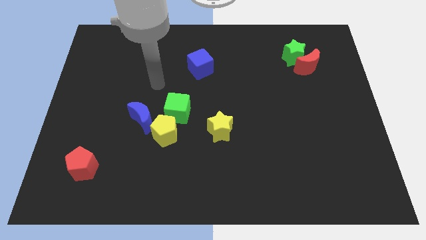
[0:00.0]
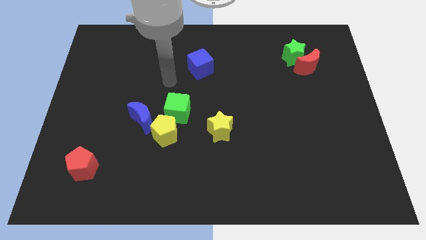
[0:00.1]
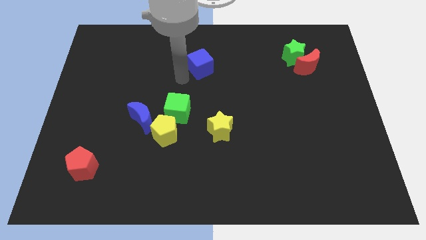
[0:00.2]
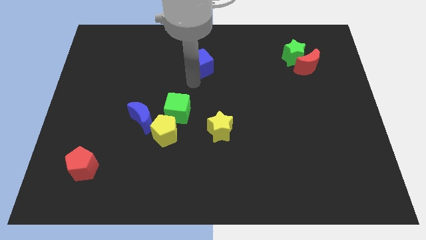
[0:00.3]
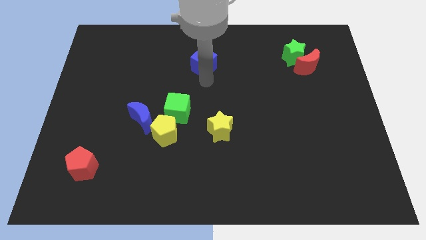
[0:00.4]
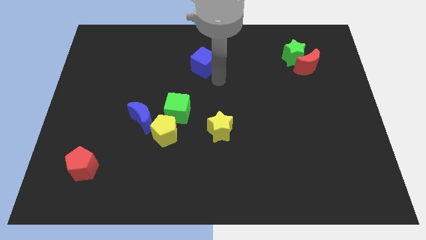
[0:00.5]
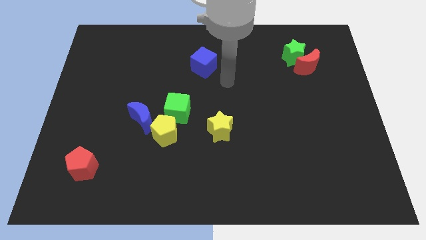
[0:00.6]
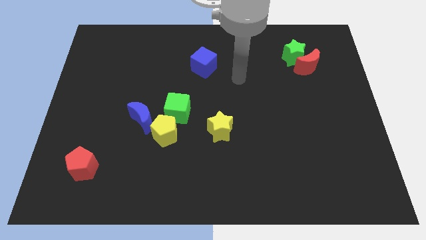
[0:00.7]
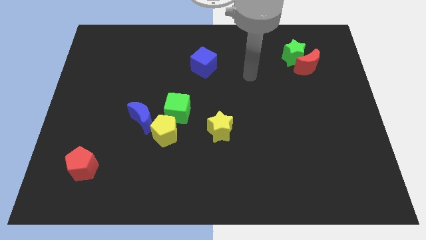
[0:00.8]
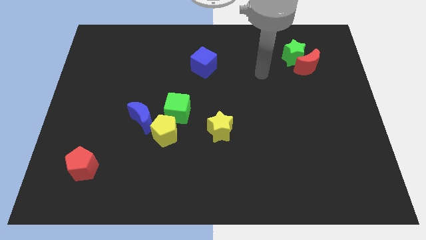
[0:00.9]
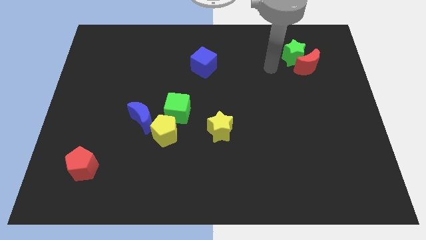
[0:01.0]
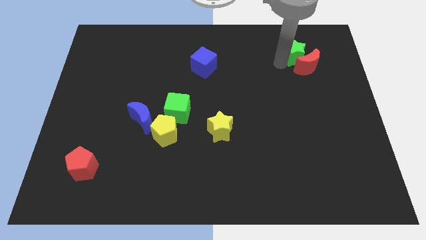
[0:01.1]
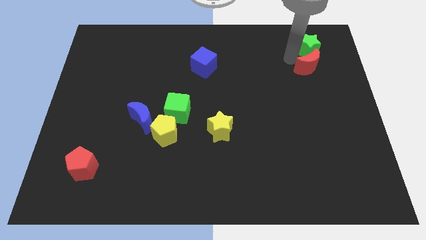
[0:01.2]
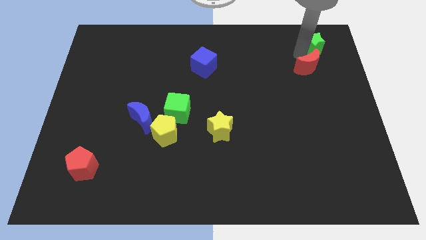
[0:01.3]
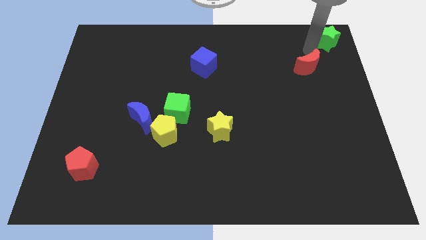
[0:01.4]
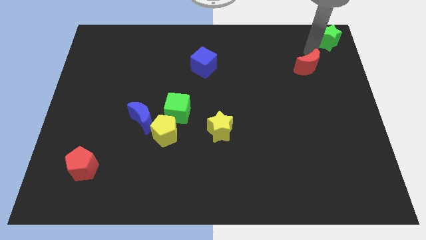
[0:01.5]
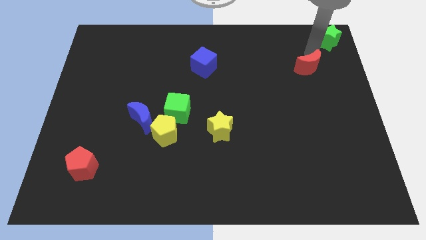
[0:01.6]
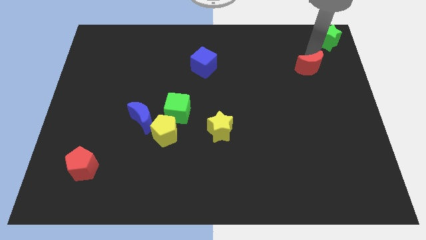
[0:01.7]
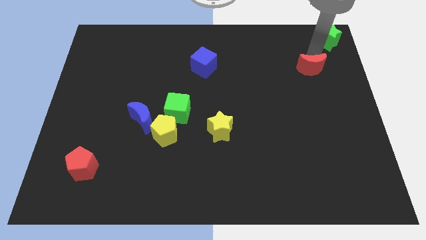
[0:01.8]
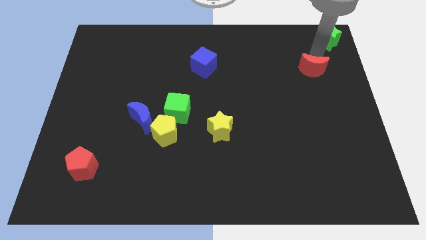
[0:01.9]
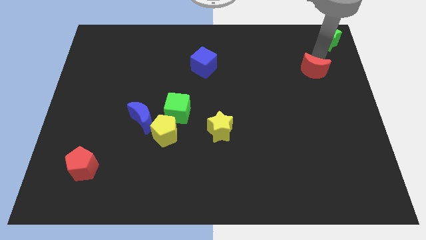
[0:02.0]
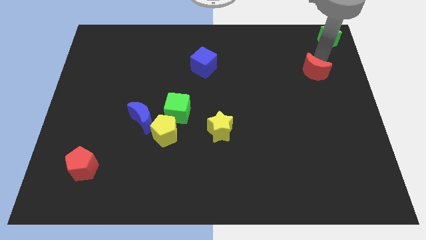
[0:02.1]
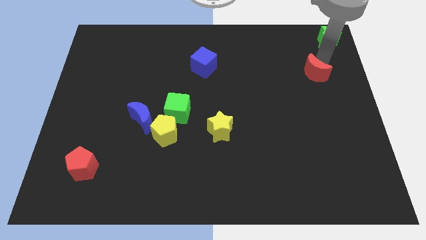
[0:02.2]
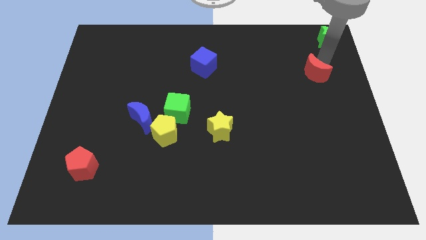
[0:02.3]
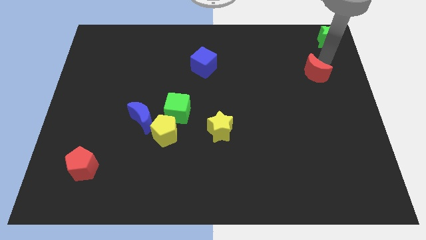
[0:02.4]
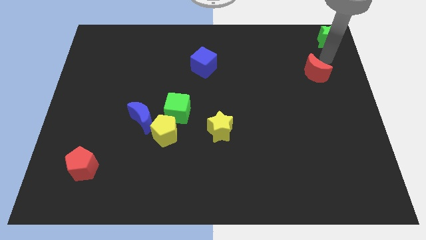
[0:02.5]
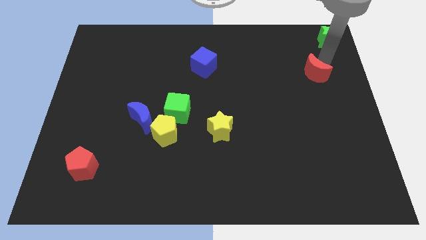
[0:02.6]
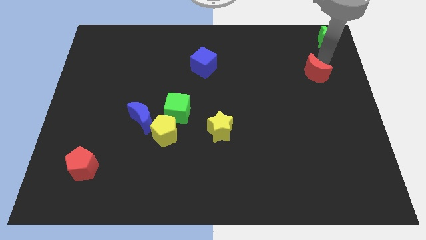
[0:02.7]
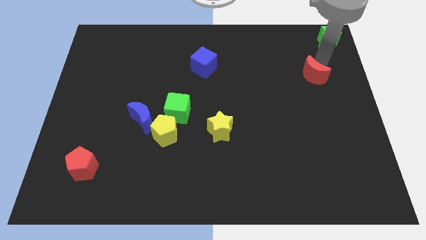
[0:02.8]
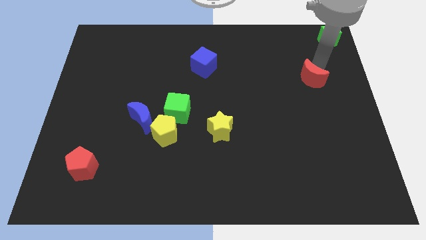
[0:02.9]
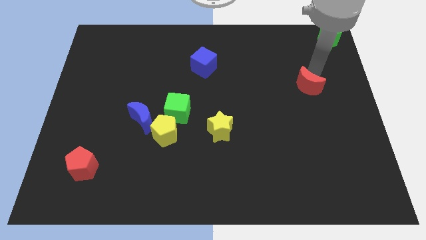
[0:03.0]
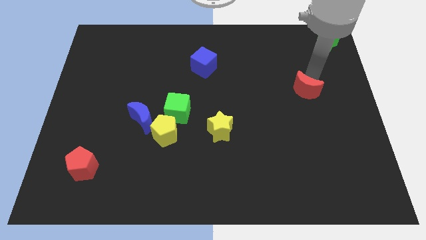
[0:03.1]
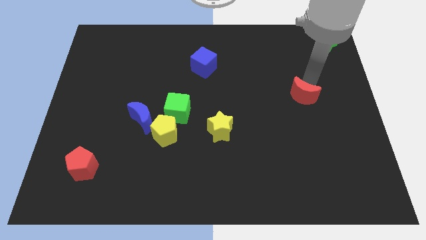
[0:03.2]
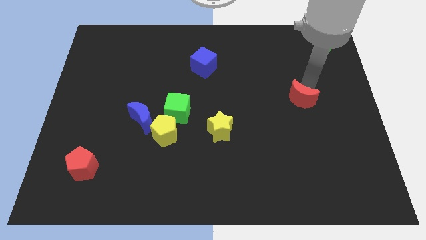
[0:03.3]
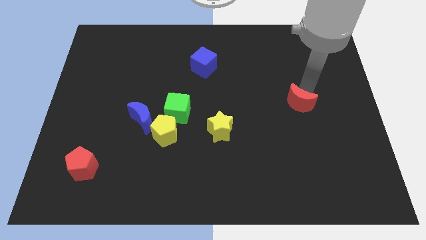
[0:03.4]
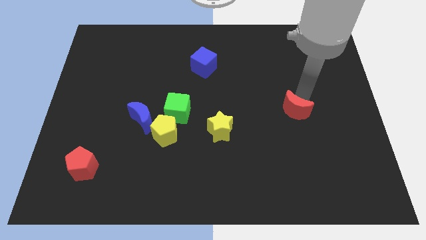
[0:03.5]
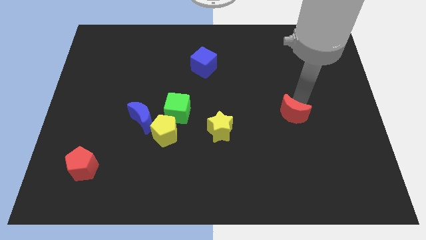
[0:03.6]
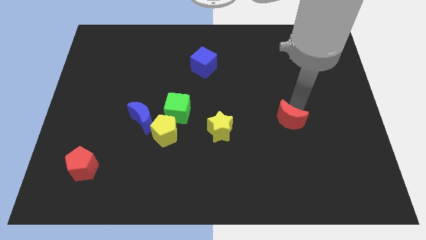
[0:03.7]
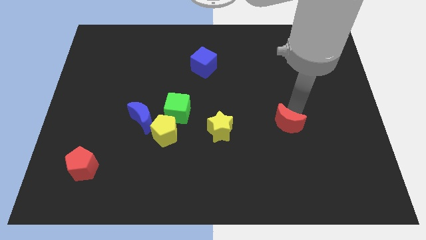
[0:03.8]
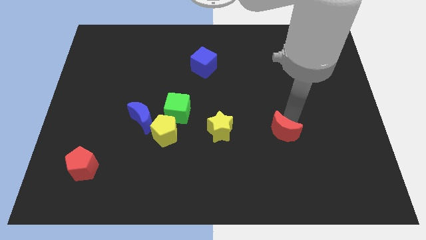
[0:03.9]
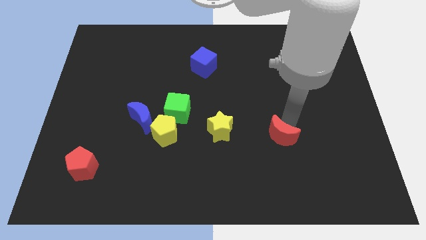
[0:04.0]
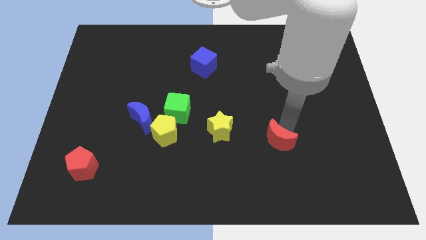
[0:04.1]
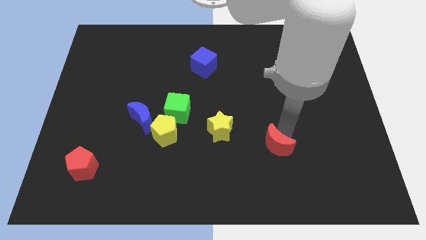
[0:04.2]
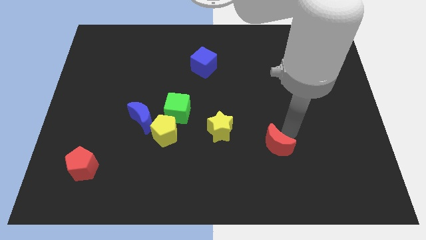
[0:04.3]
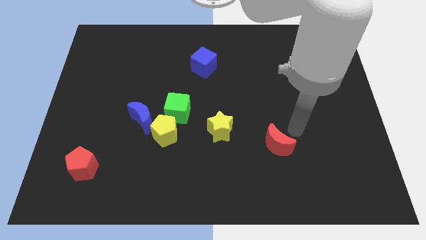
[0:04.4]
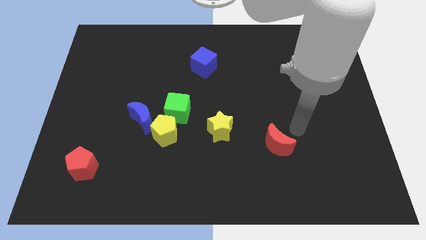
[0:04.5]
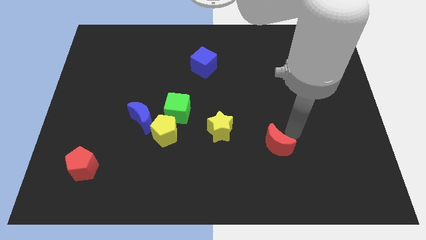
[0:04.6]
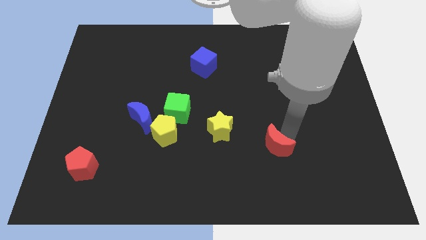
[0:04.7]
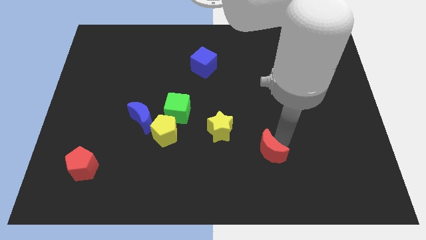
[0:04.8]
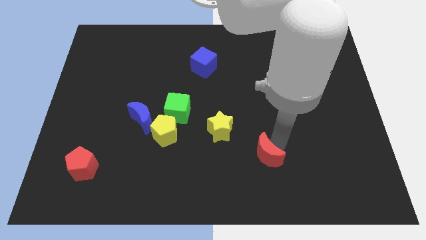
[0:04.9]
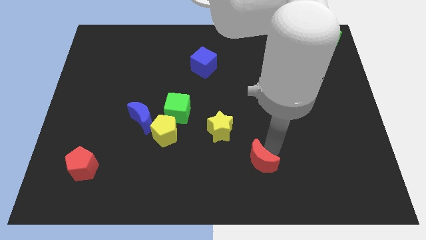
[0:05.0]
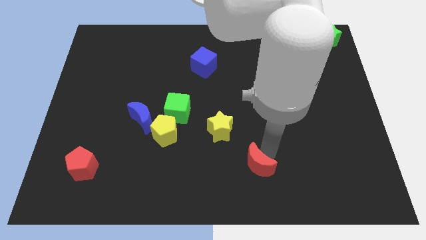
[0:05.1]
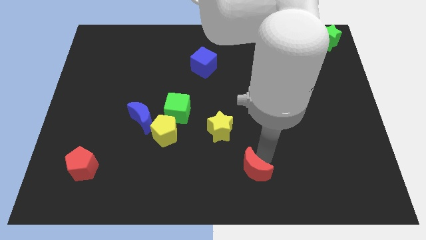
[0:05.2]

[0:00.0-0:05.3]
put the red moon to the bottom side
